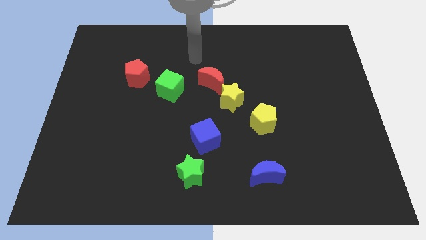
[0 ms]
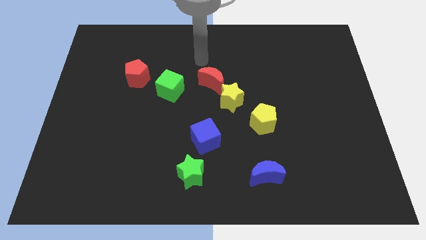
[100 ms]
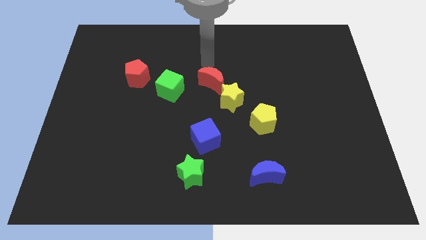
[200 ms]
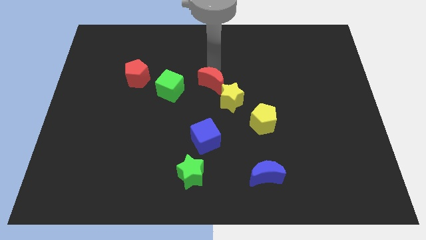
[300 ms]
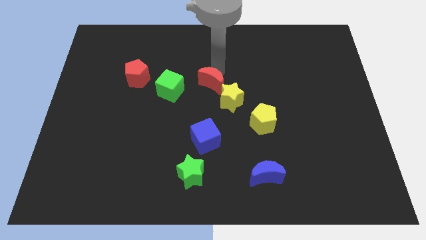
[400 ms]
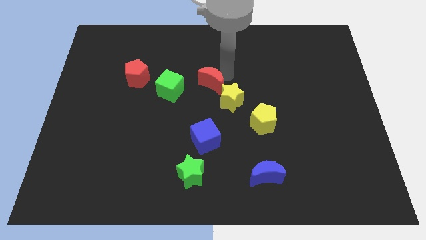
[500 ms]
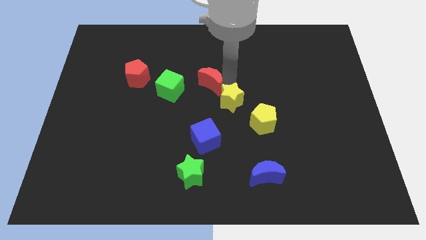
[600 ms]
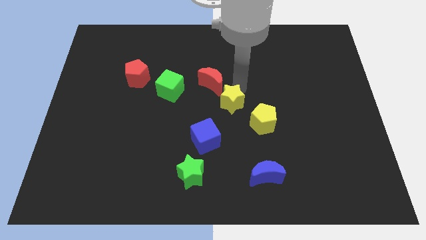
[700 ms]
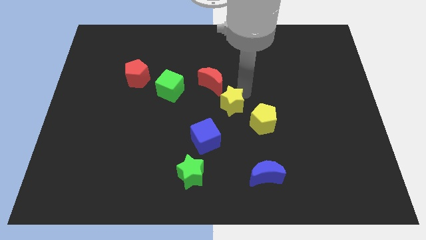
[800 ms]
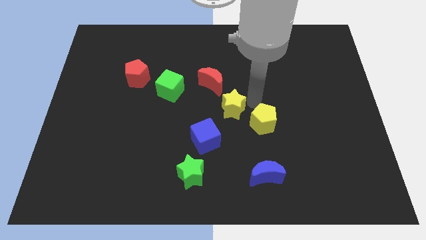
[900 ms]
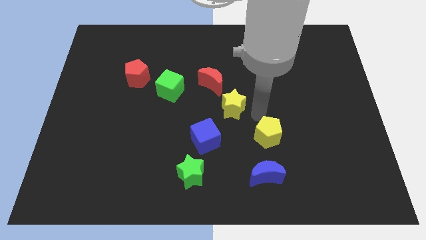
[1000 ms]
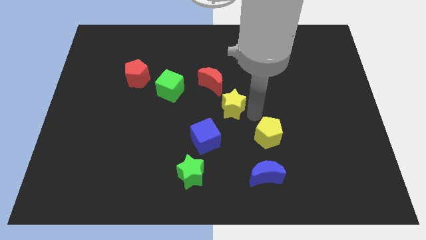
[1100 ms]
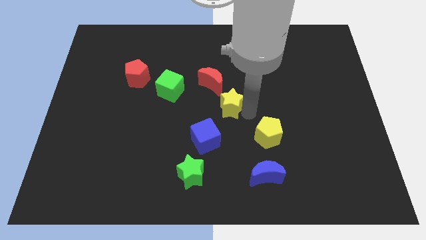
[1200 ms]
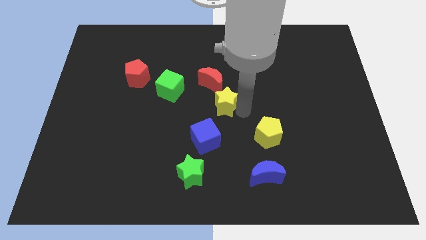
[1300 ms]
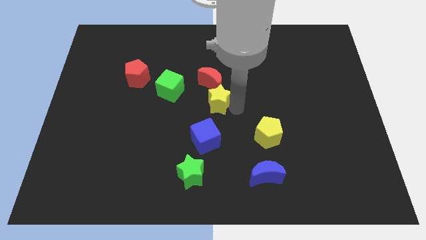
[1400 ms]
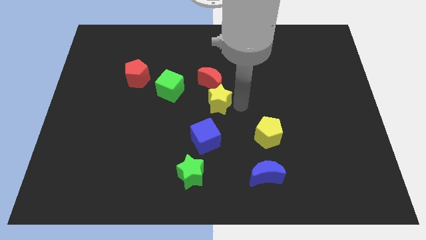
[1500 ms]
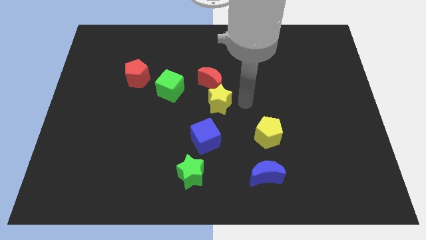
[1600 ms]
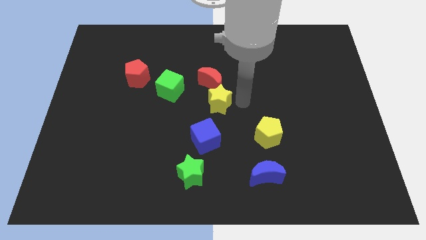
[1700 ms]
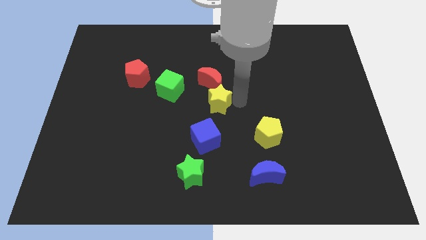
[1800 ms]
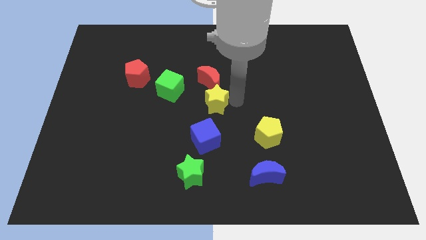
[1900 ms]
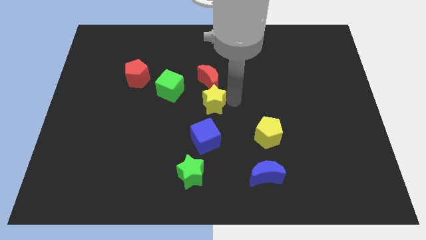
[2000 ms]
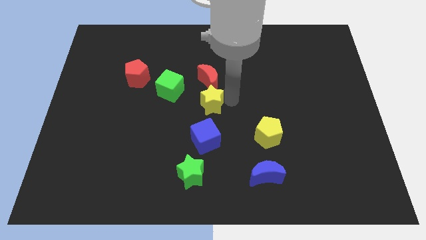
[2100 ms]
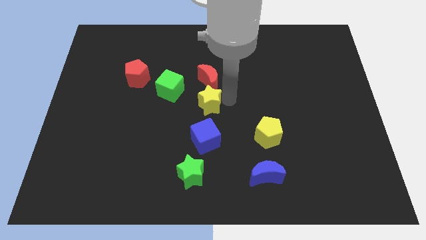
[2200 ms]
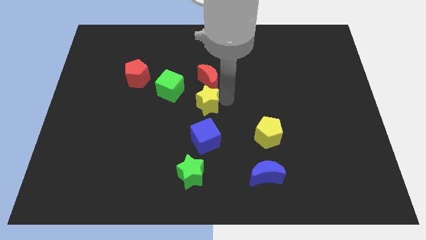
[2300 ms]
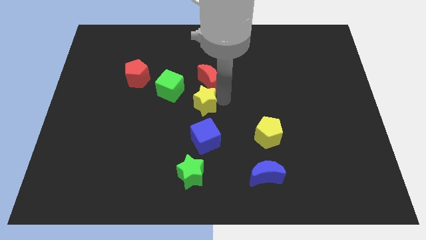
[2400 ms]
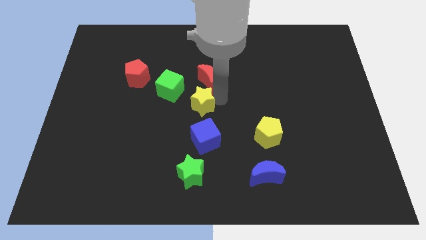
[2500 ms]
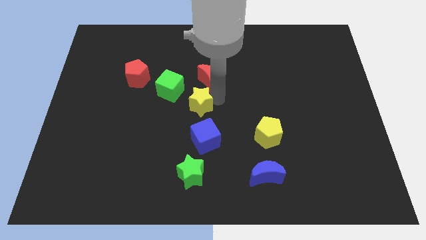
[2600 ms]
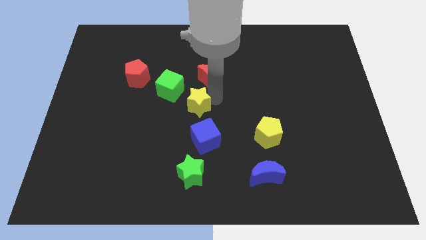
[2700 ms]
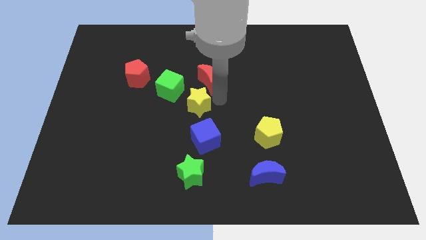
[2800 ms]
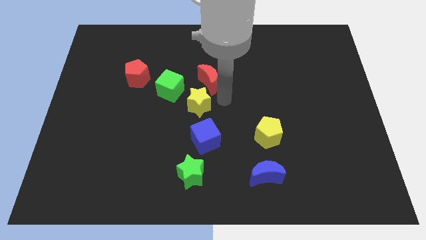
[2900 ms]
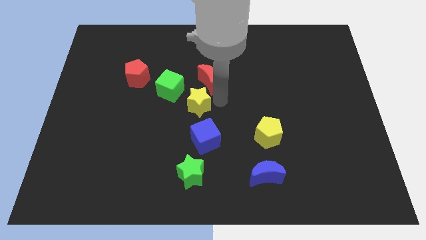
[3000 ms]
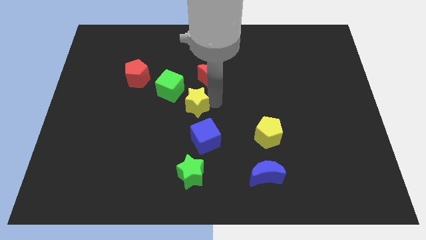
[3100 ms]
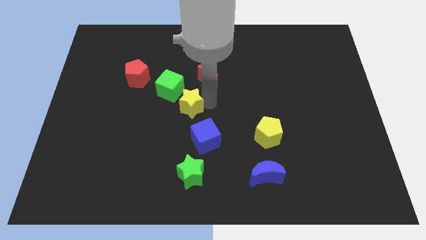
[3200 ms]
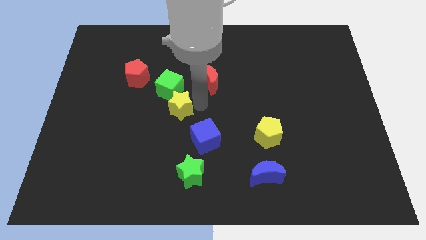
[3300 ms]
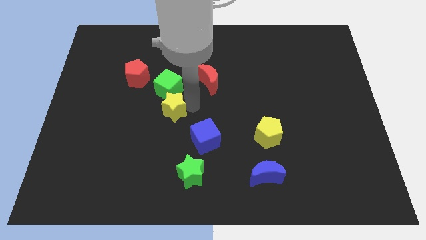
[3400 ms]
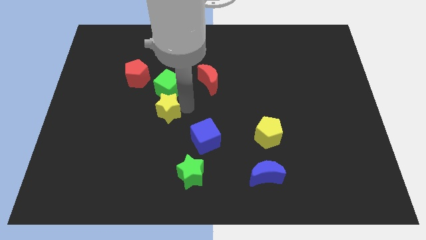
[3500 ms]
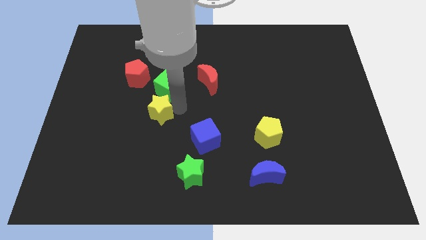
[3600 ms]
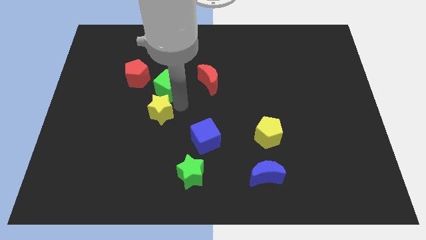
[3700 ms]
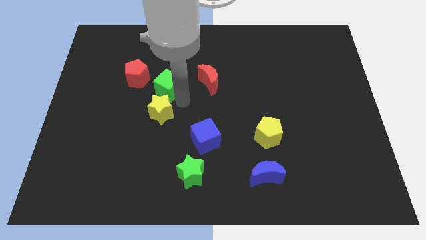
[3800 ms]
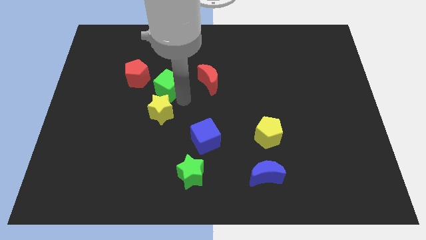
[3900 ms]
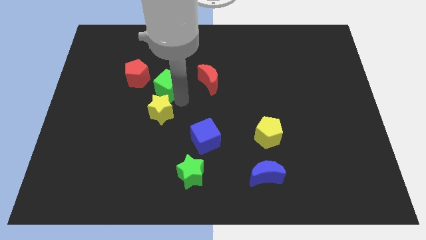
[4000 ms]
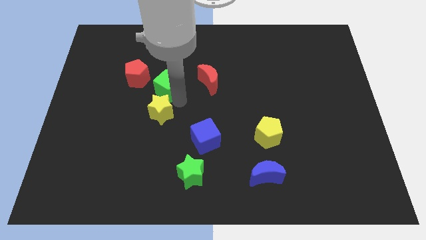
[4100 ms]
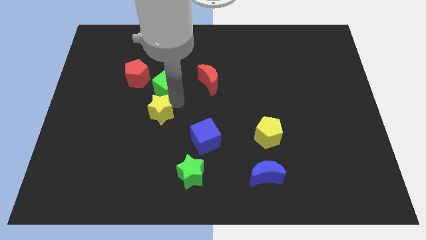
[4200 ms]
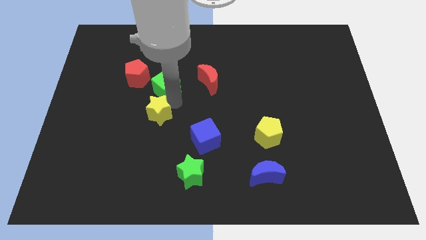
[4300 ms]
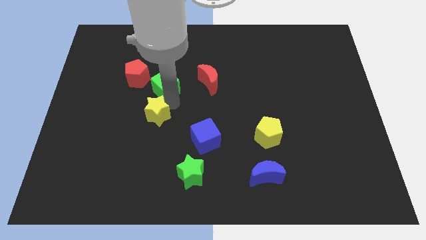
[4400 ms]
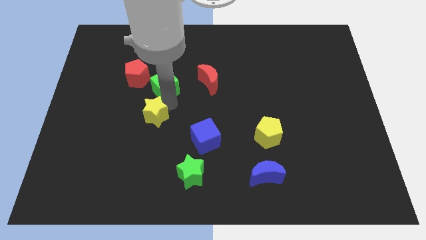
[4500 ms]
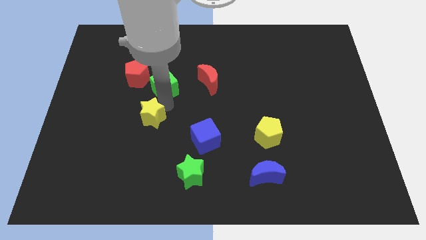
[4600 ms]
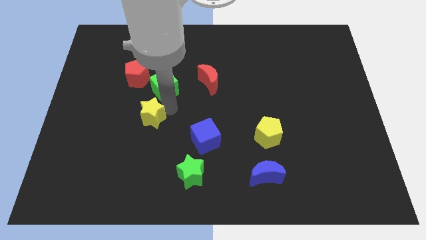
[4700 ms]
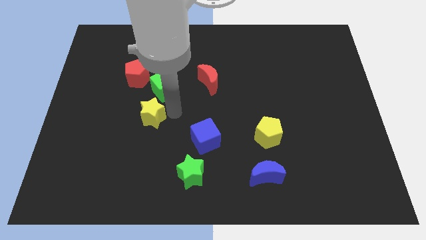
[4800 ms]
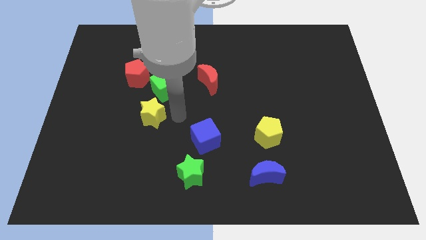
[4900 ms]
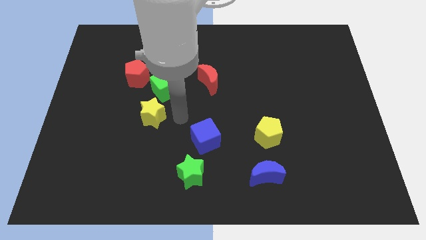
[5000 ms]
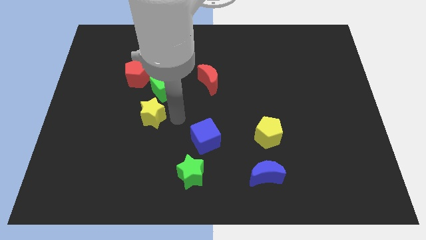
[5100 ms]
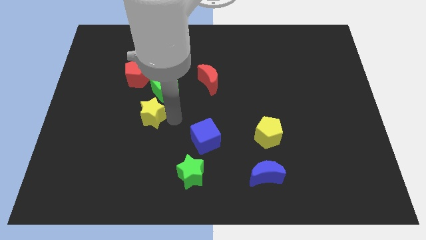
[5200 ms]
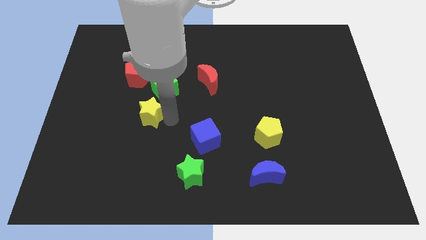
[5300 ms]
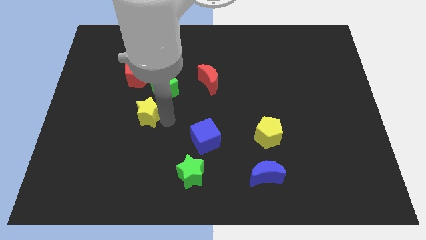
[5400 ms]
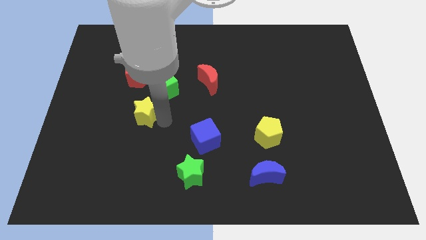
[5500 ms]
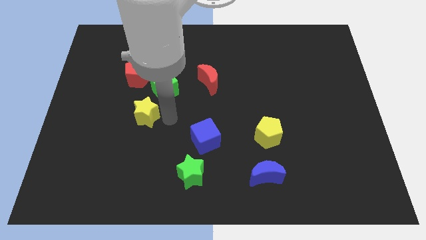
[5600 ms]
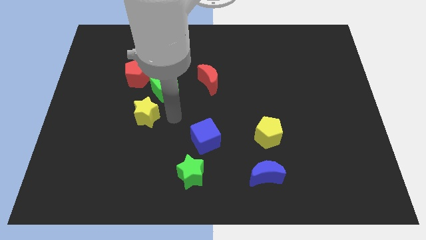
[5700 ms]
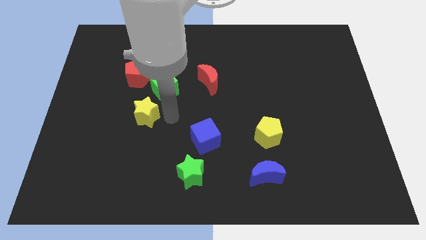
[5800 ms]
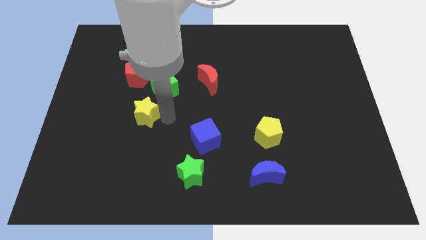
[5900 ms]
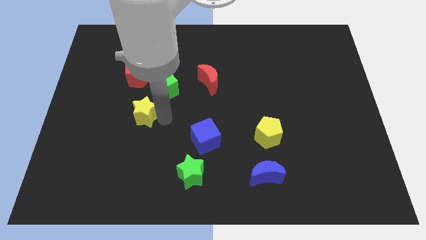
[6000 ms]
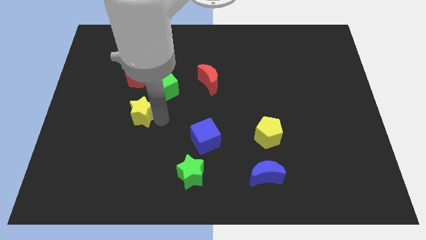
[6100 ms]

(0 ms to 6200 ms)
push the yellow star to the left

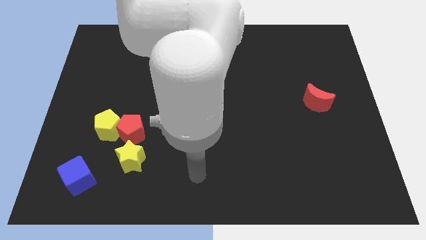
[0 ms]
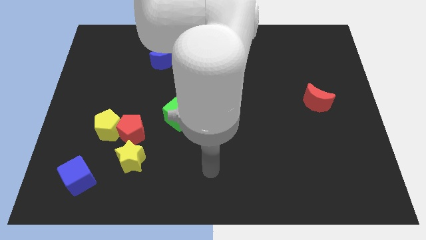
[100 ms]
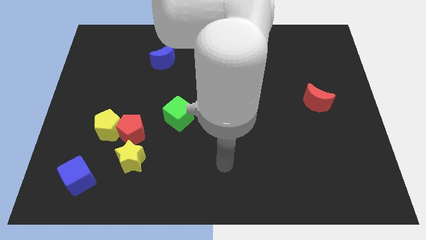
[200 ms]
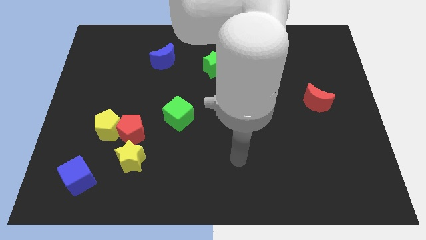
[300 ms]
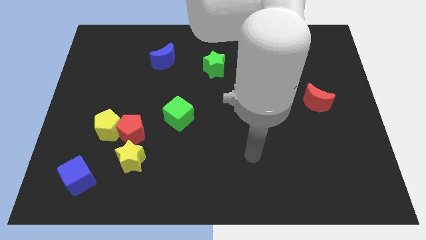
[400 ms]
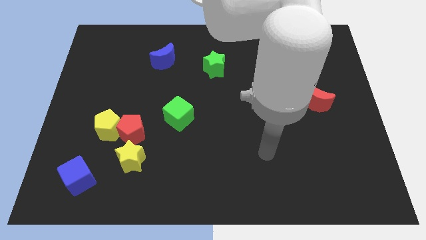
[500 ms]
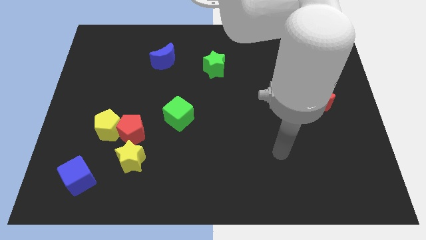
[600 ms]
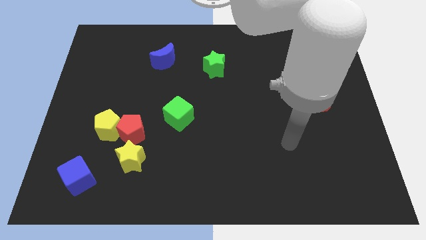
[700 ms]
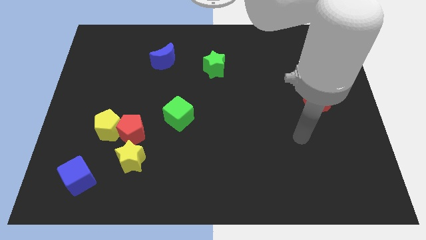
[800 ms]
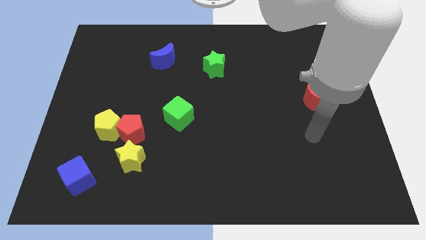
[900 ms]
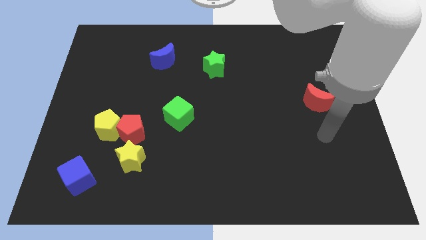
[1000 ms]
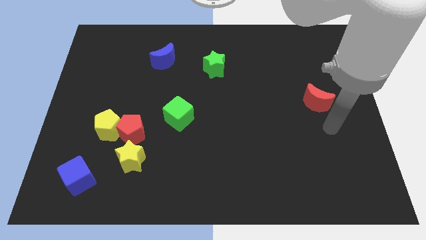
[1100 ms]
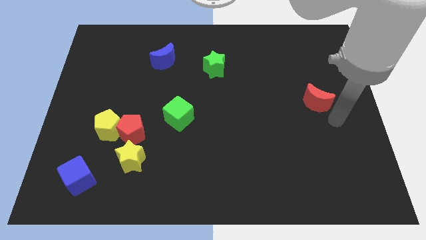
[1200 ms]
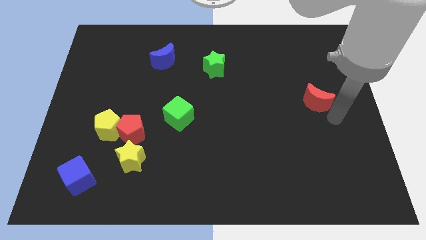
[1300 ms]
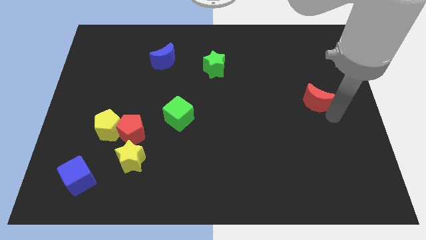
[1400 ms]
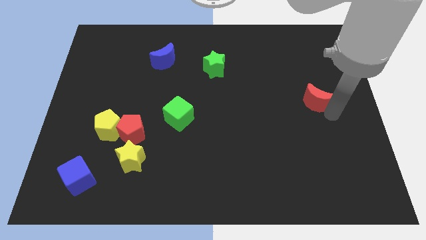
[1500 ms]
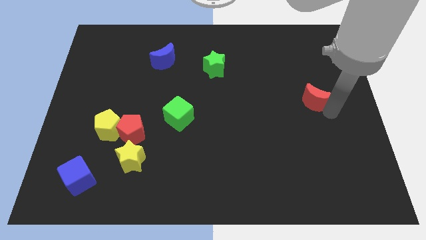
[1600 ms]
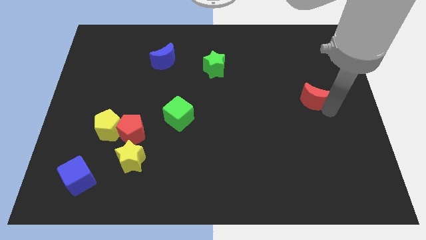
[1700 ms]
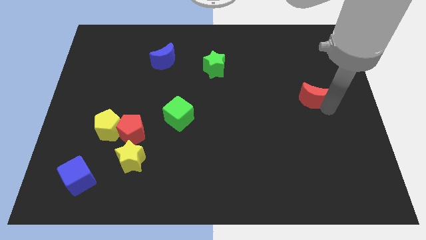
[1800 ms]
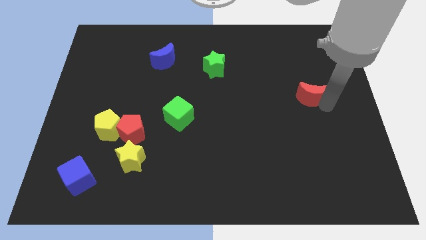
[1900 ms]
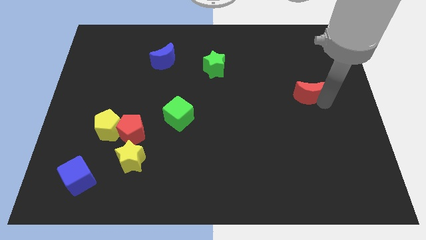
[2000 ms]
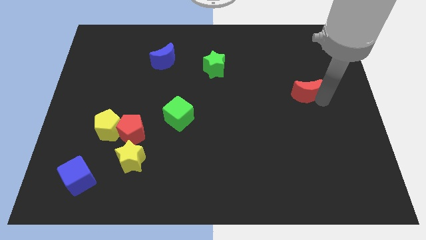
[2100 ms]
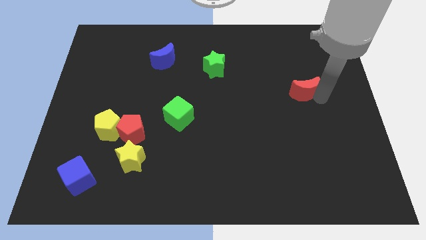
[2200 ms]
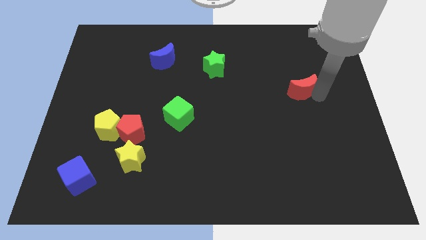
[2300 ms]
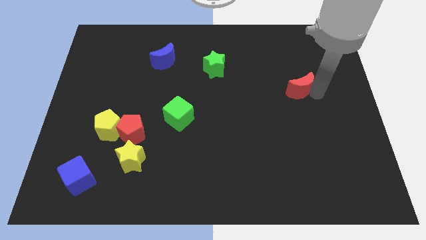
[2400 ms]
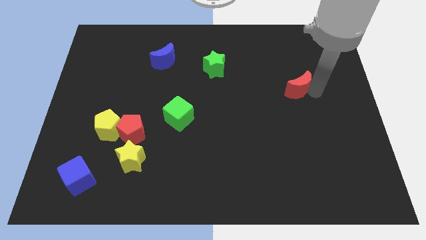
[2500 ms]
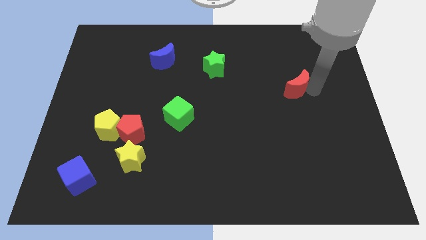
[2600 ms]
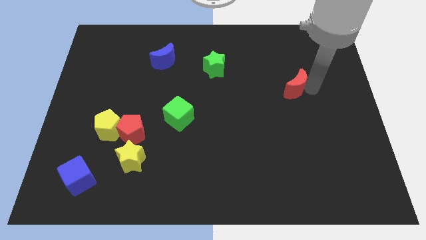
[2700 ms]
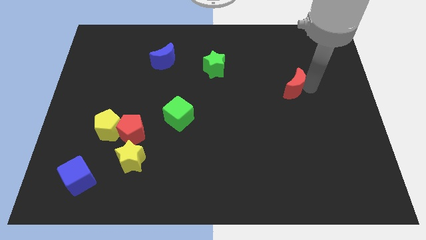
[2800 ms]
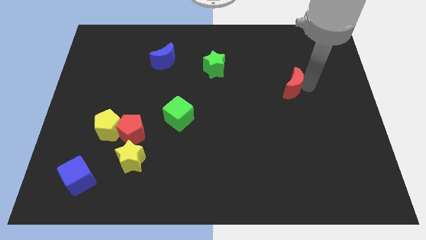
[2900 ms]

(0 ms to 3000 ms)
move the red moon slightly up and to the left
